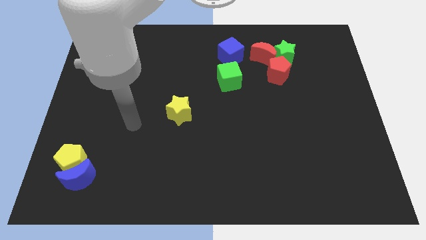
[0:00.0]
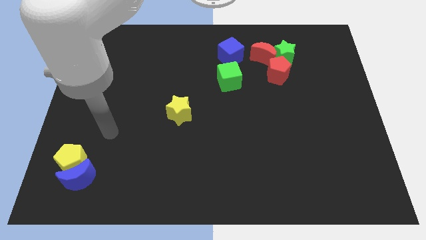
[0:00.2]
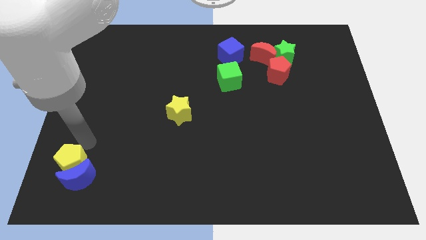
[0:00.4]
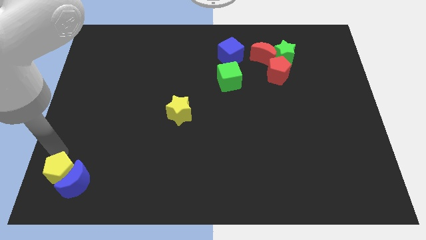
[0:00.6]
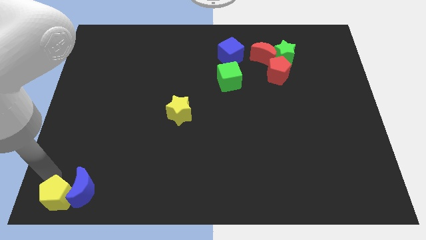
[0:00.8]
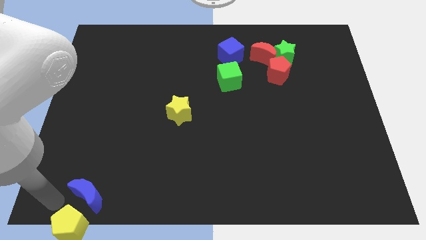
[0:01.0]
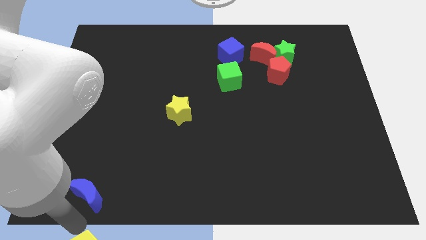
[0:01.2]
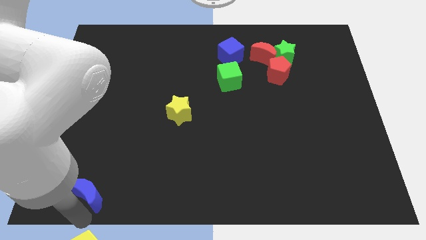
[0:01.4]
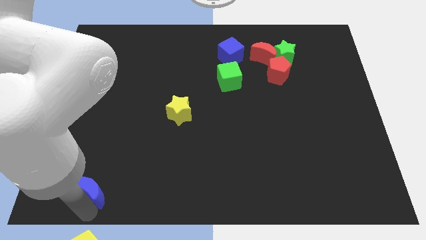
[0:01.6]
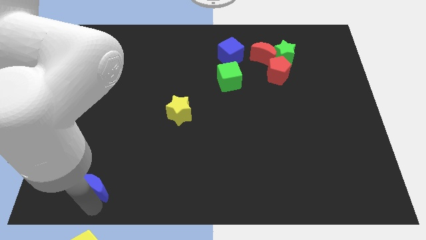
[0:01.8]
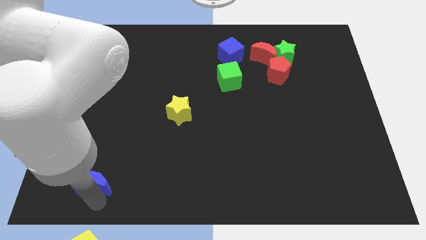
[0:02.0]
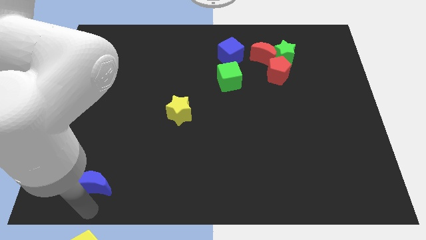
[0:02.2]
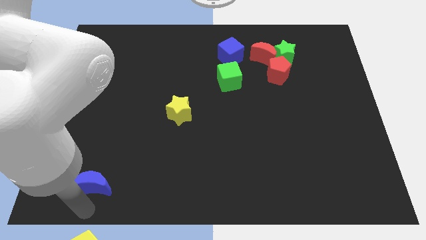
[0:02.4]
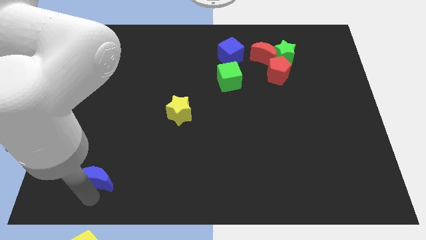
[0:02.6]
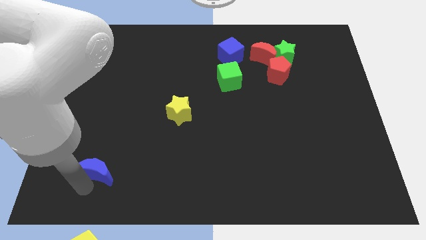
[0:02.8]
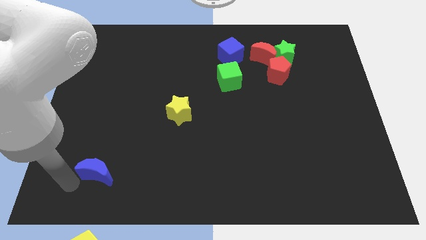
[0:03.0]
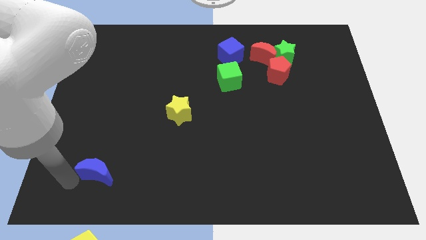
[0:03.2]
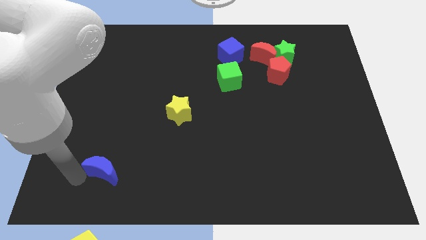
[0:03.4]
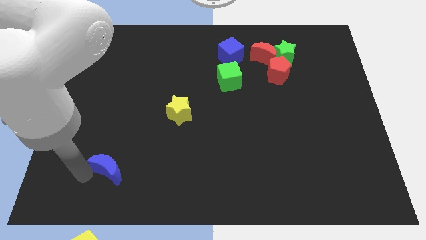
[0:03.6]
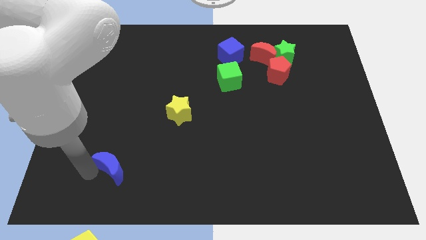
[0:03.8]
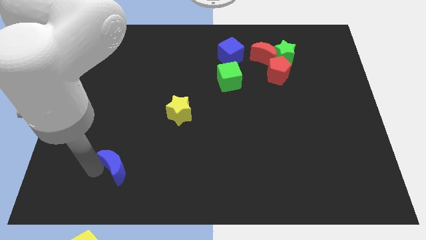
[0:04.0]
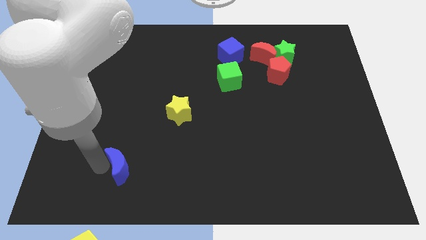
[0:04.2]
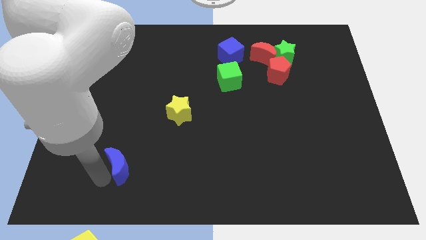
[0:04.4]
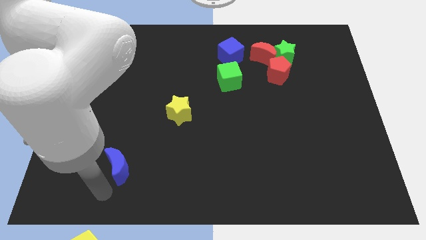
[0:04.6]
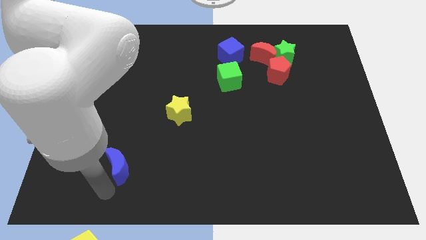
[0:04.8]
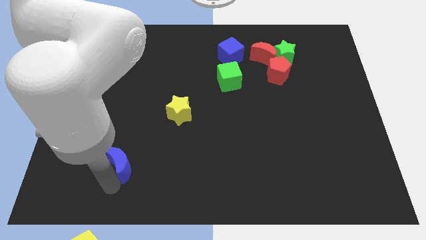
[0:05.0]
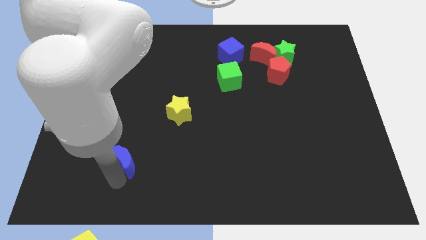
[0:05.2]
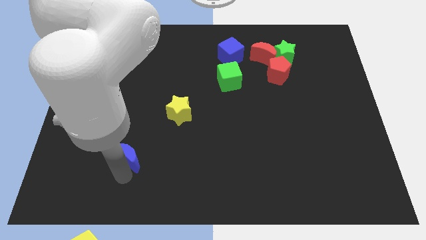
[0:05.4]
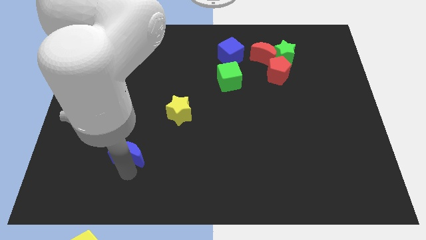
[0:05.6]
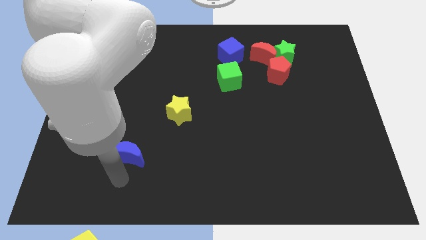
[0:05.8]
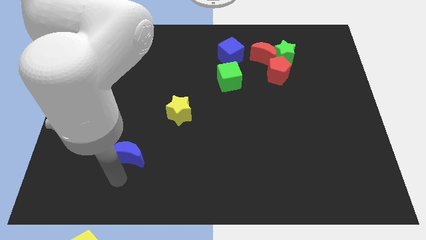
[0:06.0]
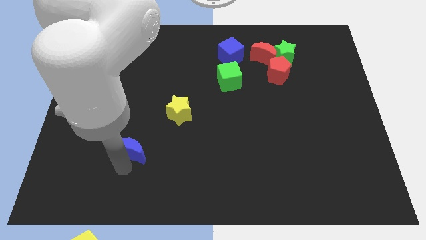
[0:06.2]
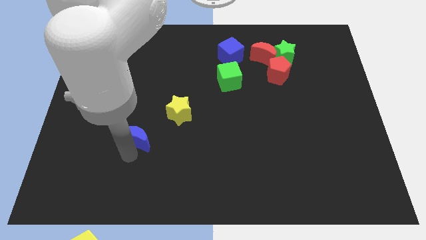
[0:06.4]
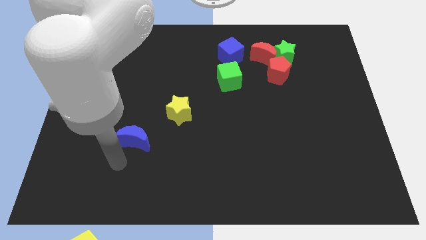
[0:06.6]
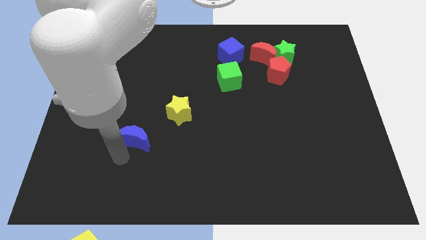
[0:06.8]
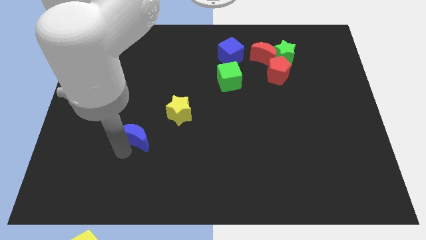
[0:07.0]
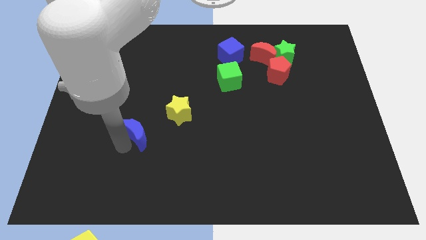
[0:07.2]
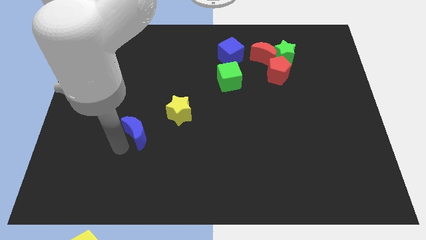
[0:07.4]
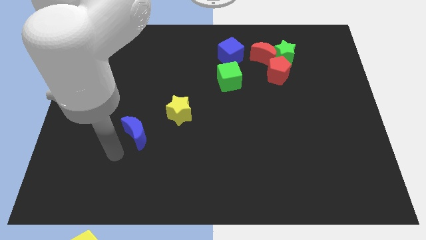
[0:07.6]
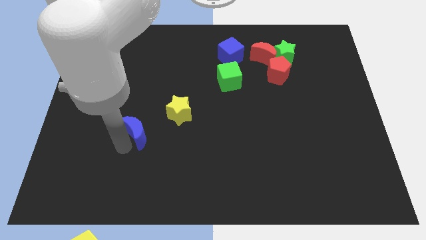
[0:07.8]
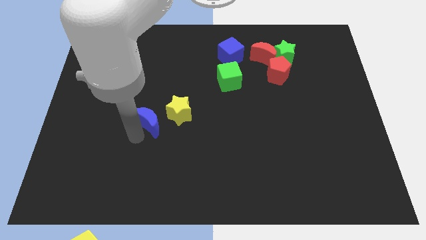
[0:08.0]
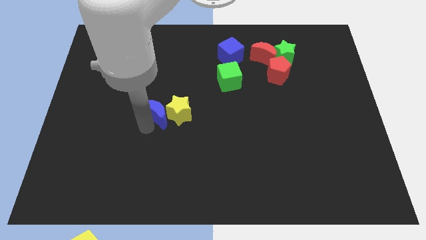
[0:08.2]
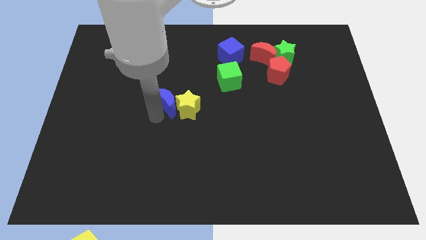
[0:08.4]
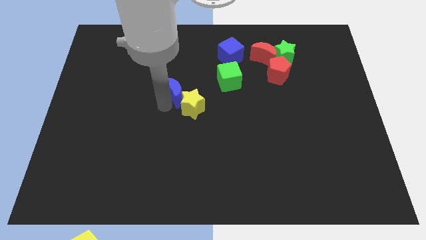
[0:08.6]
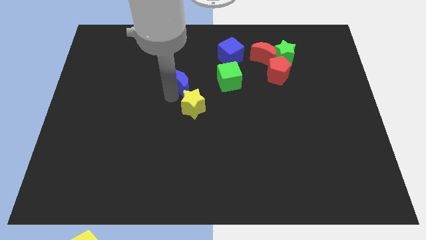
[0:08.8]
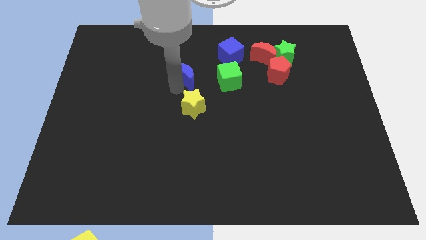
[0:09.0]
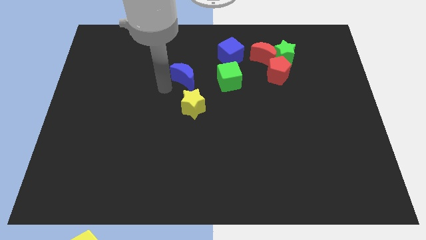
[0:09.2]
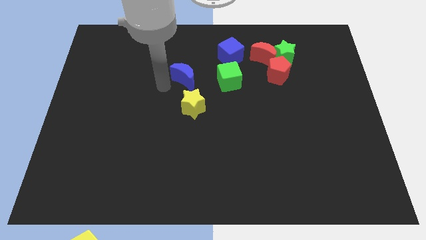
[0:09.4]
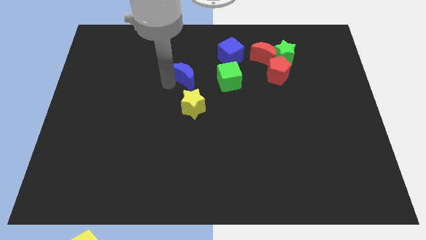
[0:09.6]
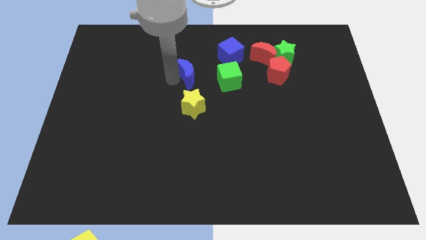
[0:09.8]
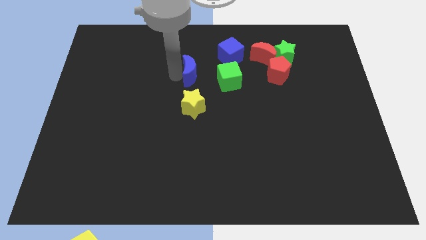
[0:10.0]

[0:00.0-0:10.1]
put the blue moon to the bottom left of the blue cube

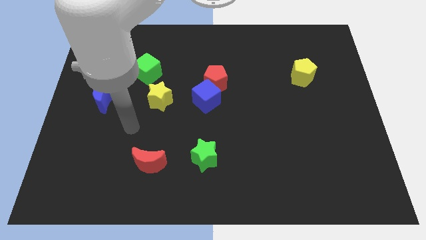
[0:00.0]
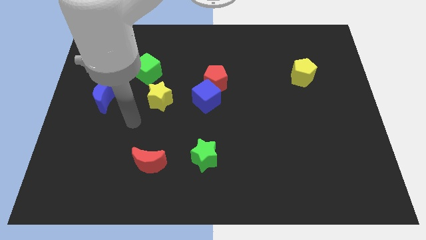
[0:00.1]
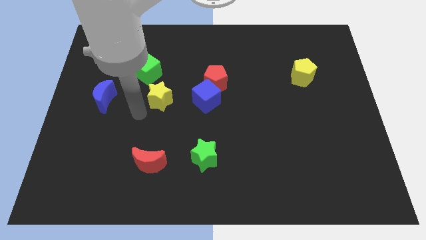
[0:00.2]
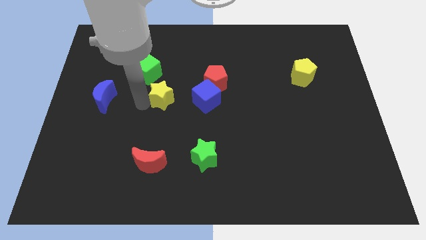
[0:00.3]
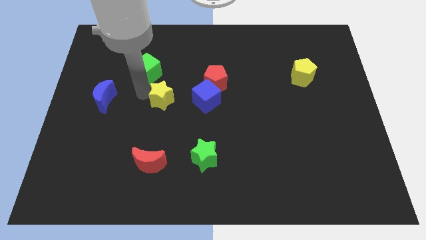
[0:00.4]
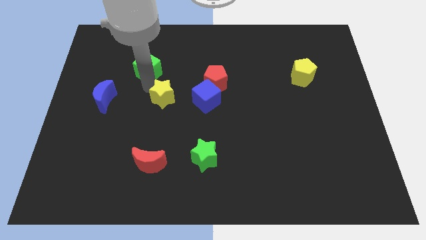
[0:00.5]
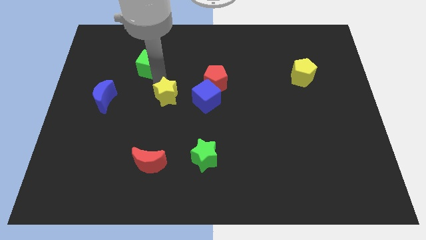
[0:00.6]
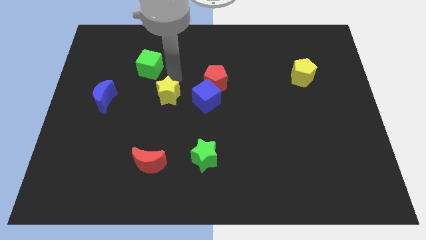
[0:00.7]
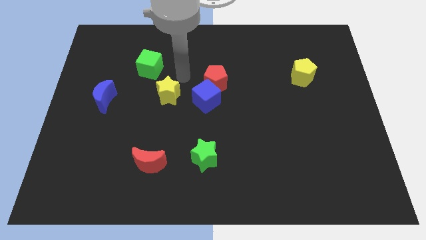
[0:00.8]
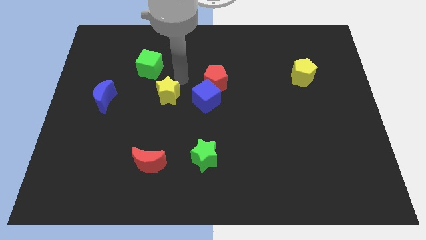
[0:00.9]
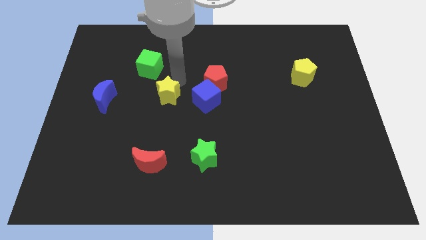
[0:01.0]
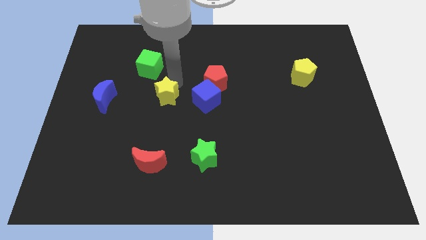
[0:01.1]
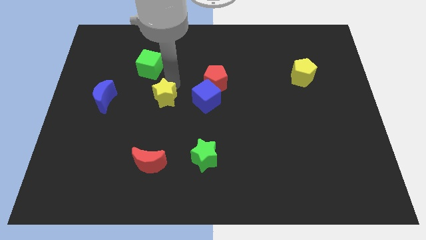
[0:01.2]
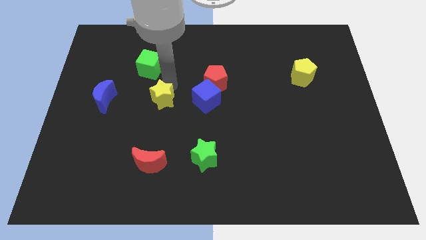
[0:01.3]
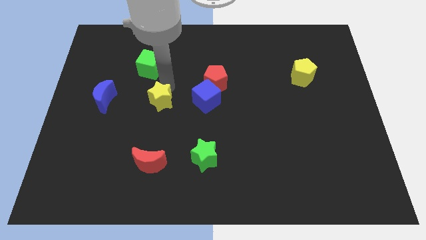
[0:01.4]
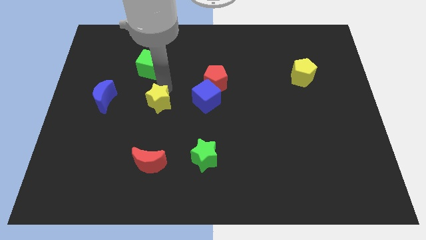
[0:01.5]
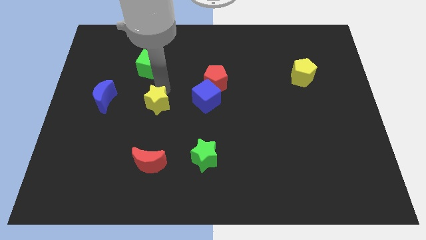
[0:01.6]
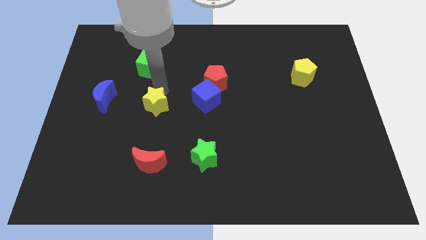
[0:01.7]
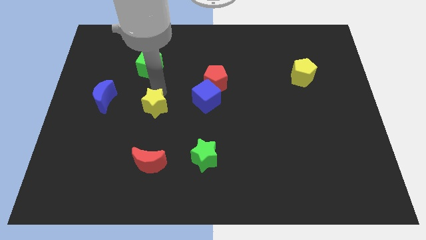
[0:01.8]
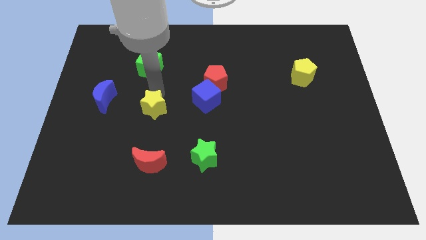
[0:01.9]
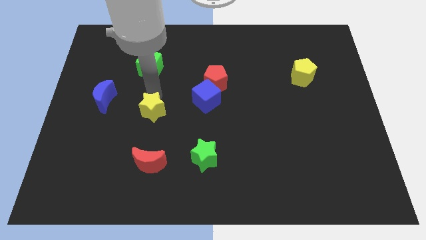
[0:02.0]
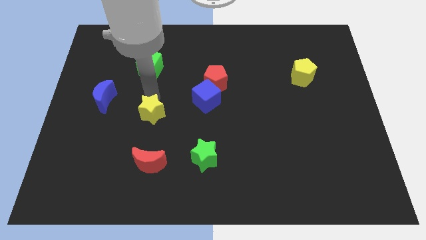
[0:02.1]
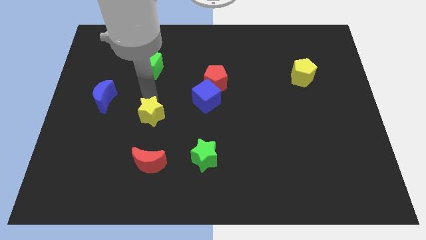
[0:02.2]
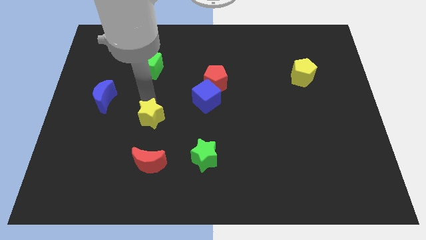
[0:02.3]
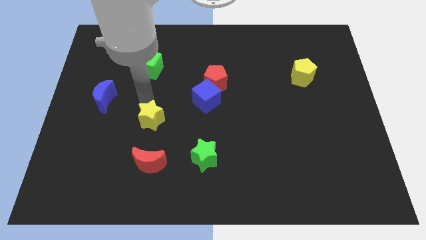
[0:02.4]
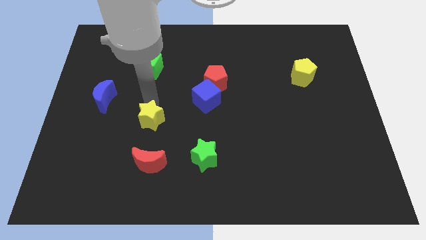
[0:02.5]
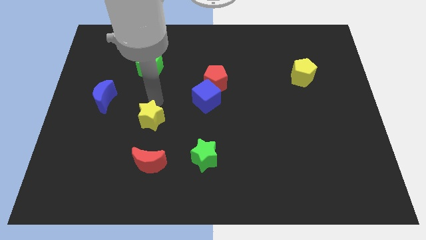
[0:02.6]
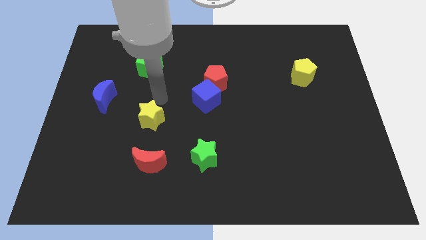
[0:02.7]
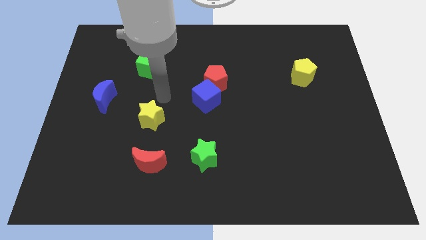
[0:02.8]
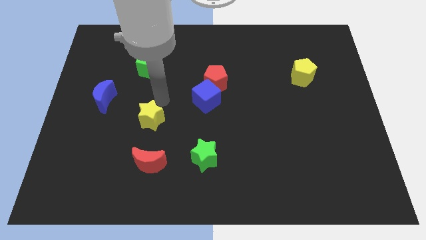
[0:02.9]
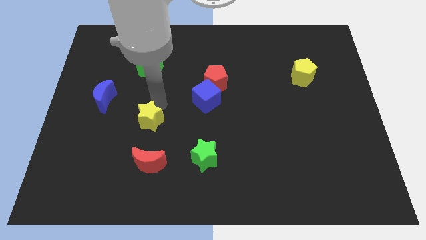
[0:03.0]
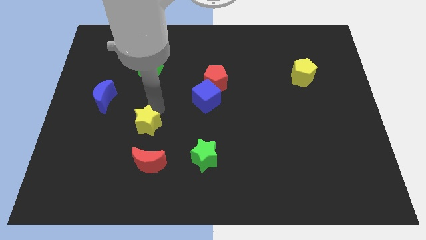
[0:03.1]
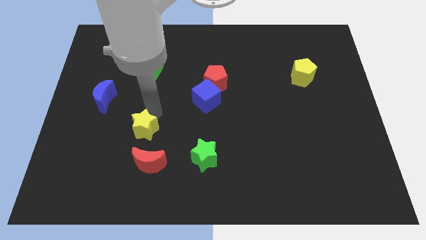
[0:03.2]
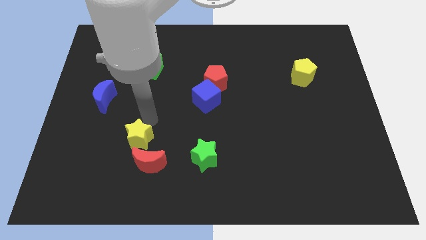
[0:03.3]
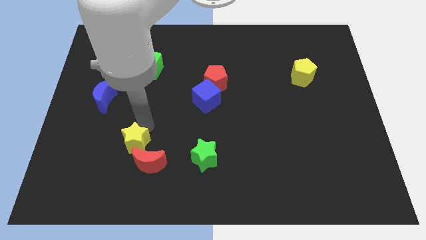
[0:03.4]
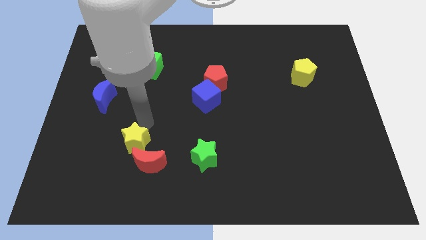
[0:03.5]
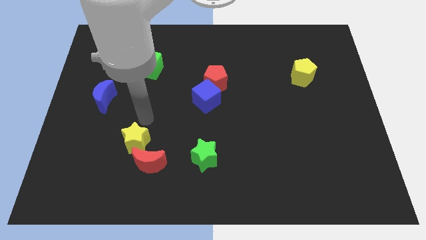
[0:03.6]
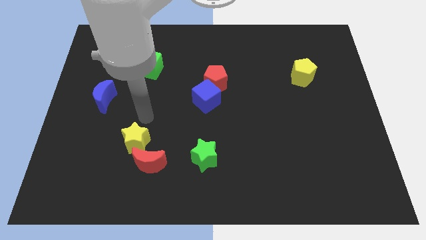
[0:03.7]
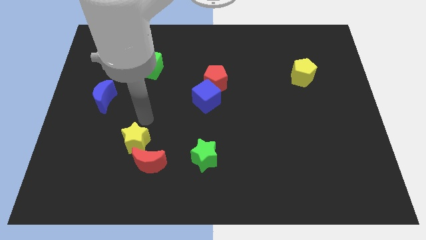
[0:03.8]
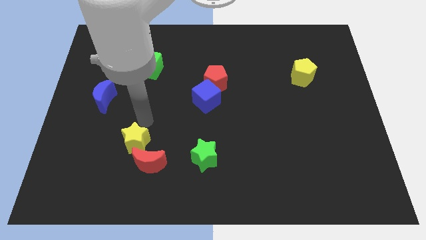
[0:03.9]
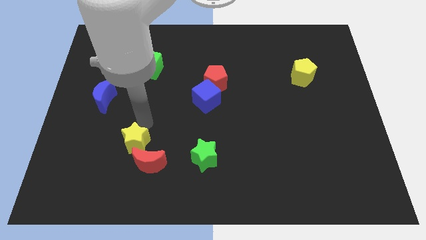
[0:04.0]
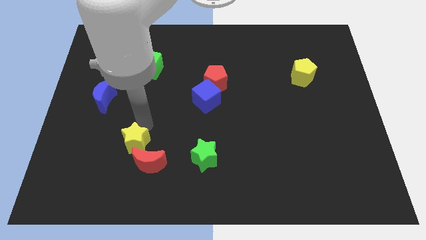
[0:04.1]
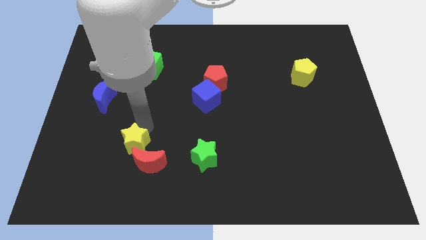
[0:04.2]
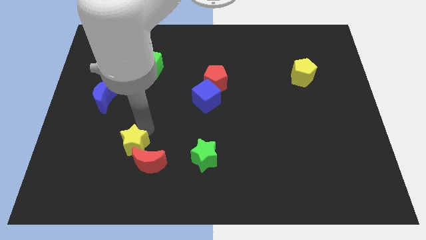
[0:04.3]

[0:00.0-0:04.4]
put the yellow star left of the green star
